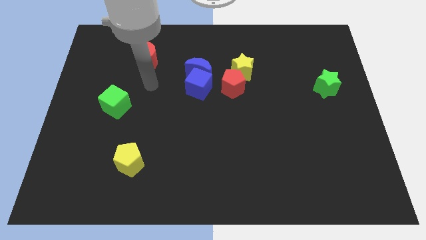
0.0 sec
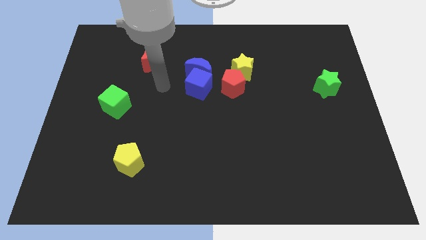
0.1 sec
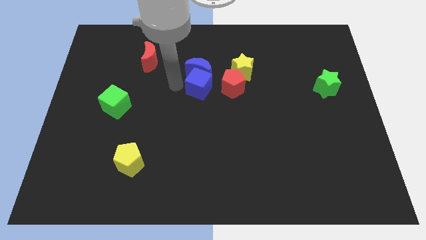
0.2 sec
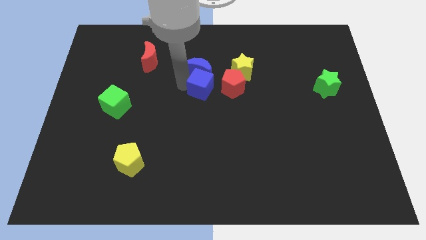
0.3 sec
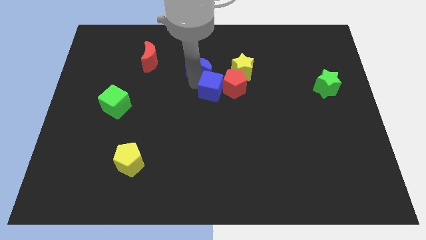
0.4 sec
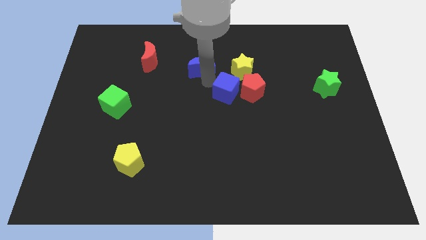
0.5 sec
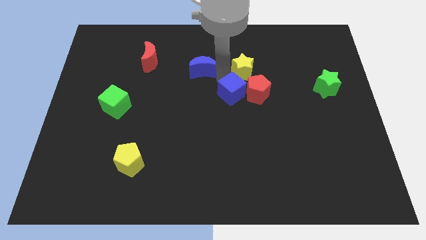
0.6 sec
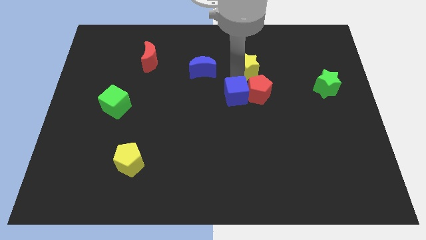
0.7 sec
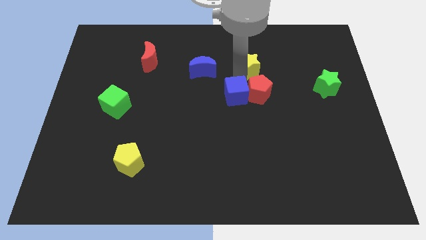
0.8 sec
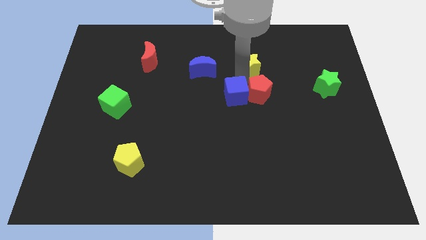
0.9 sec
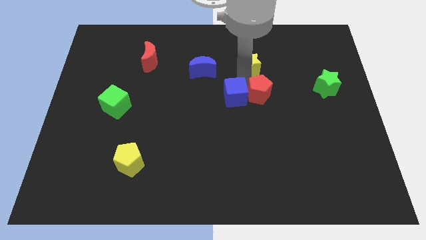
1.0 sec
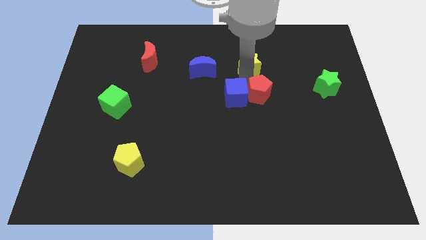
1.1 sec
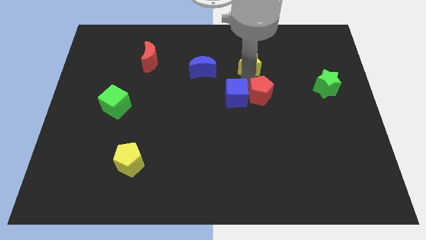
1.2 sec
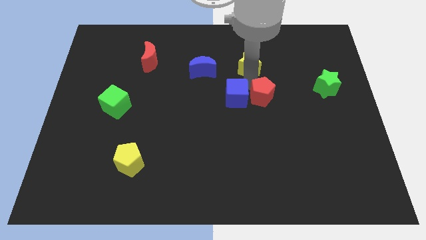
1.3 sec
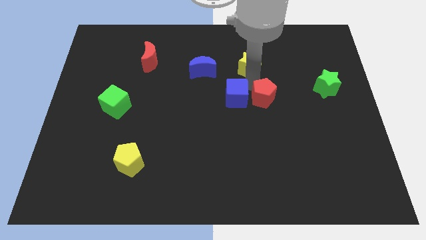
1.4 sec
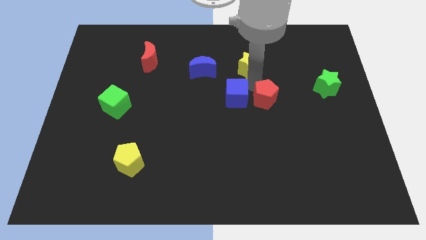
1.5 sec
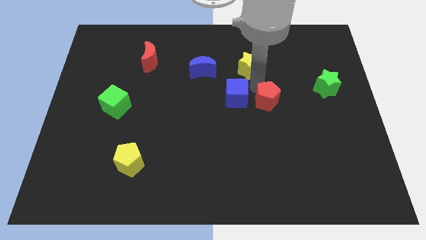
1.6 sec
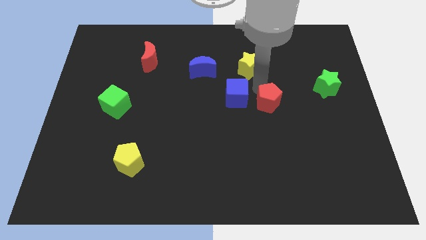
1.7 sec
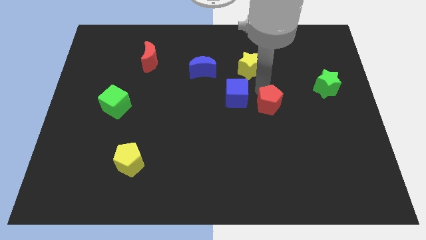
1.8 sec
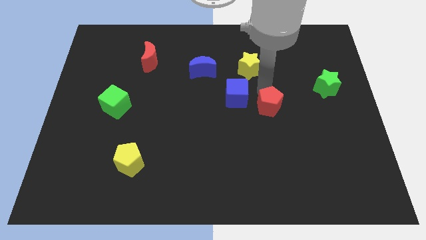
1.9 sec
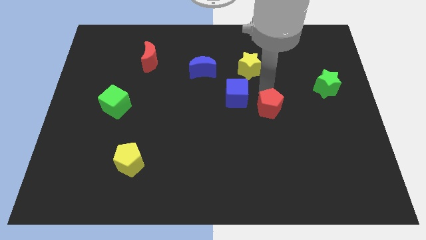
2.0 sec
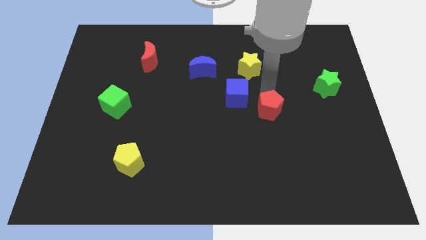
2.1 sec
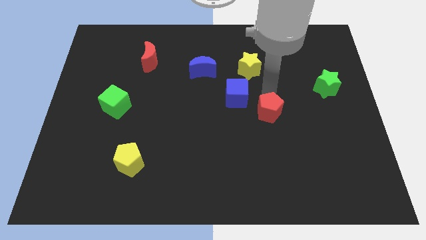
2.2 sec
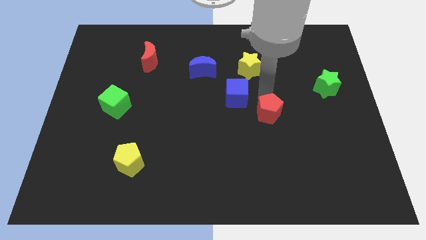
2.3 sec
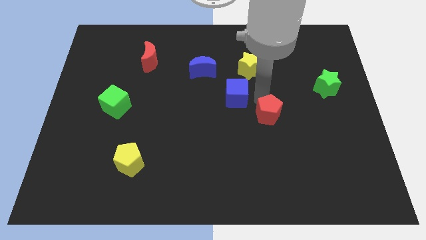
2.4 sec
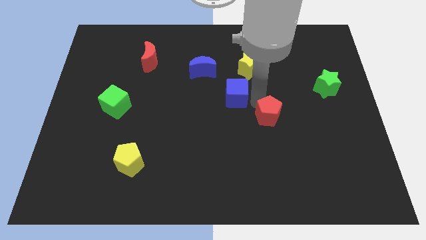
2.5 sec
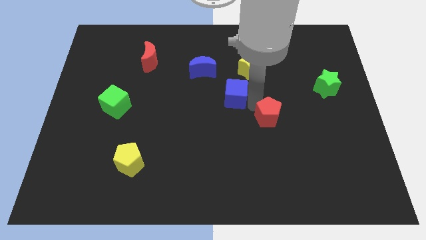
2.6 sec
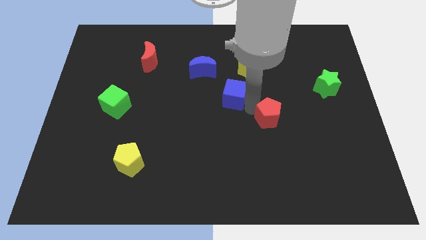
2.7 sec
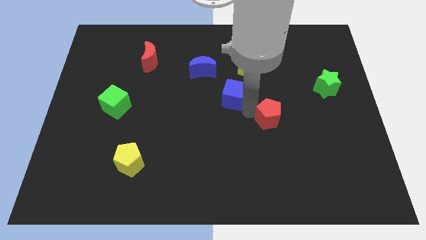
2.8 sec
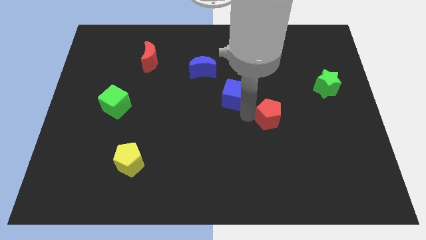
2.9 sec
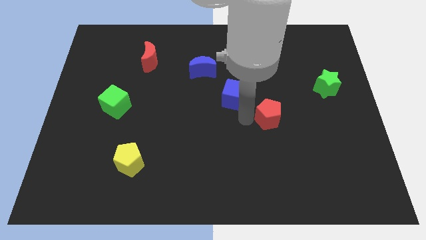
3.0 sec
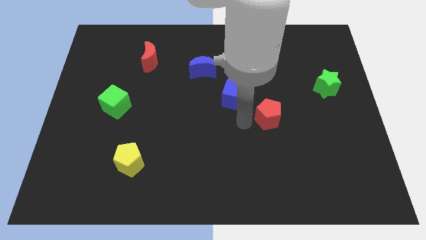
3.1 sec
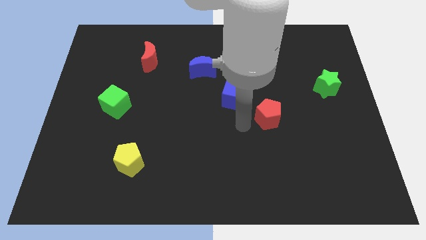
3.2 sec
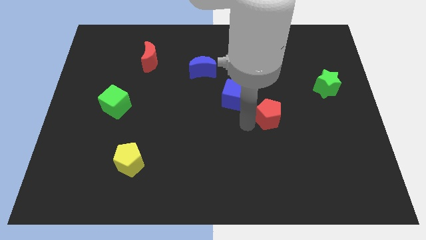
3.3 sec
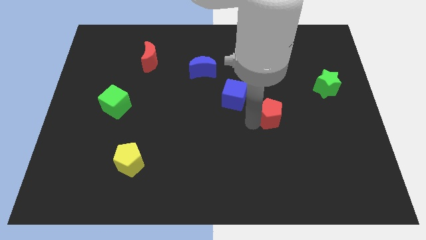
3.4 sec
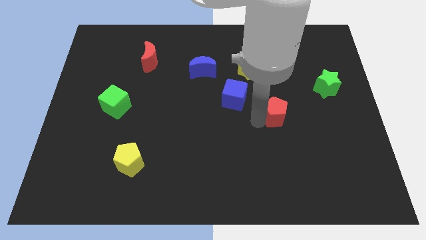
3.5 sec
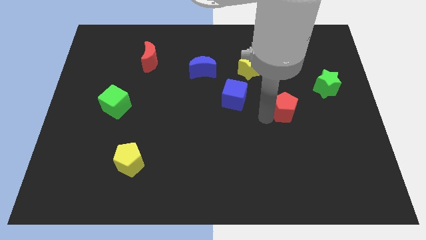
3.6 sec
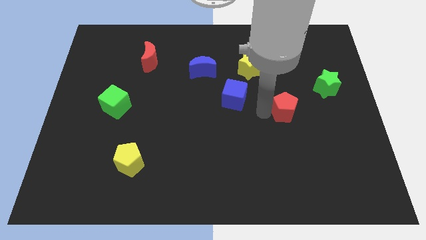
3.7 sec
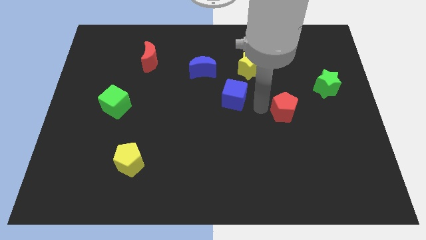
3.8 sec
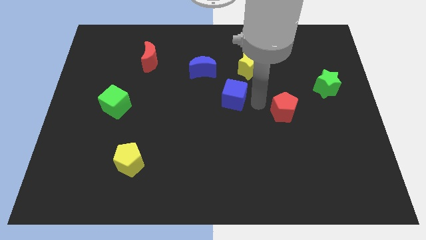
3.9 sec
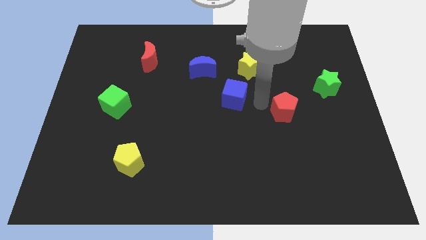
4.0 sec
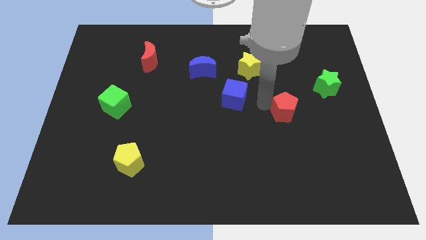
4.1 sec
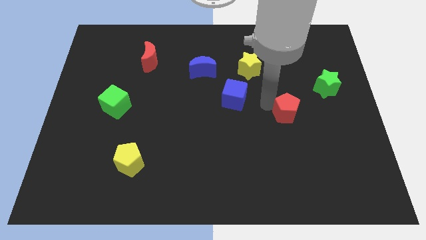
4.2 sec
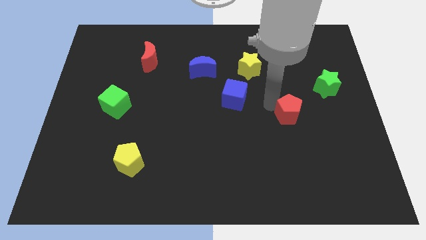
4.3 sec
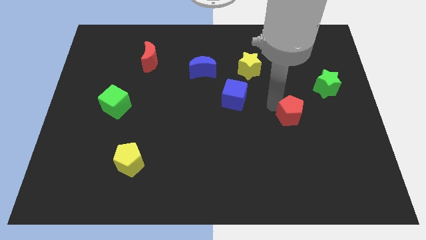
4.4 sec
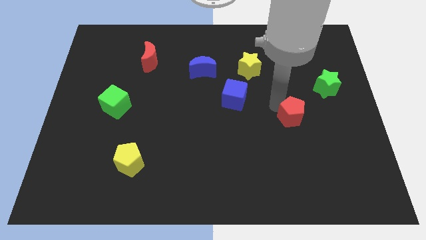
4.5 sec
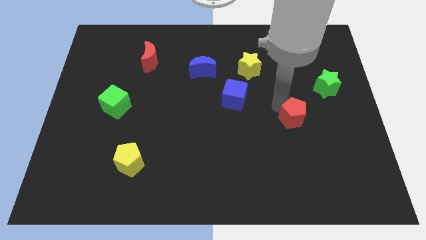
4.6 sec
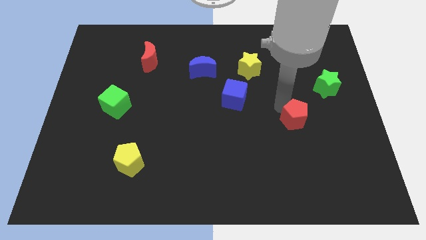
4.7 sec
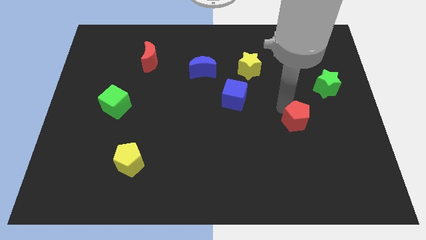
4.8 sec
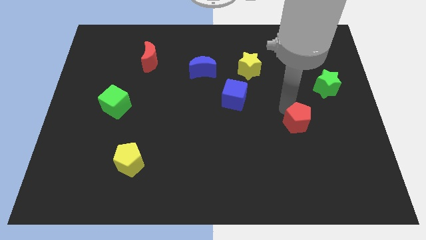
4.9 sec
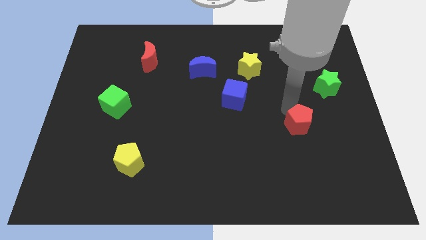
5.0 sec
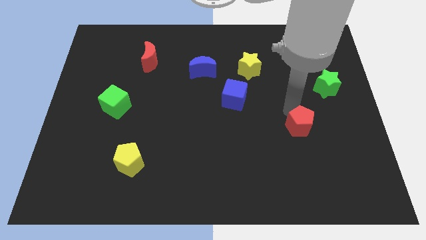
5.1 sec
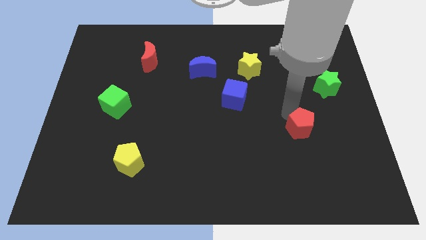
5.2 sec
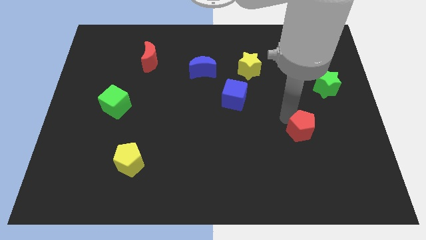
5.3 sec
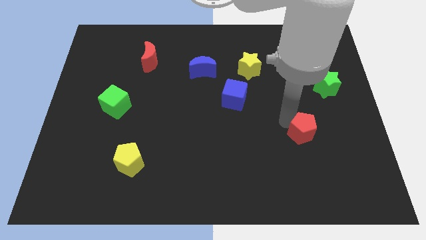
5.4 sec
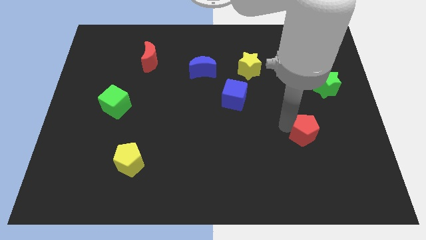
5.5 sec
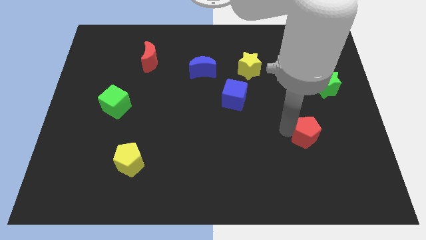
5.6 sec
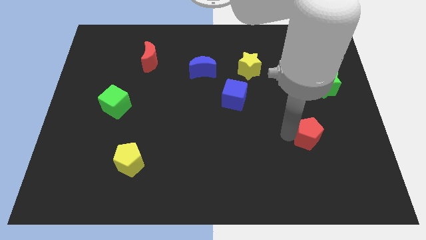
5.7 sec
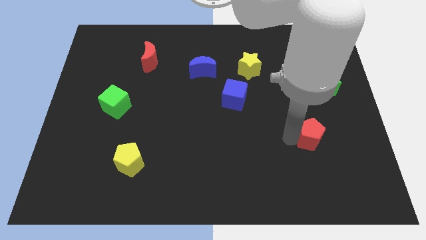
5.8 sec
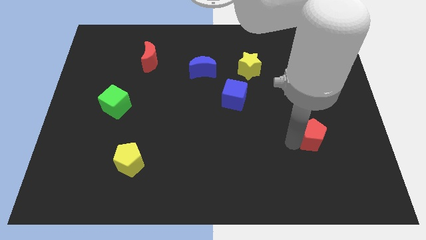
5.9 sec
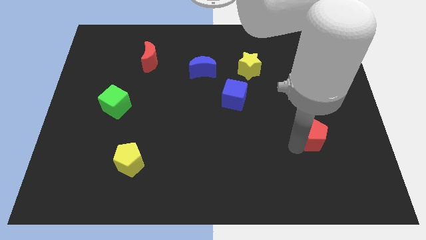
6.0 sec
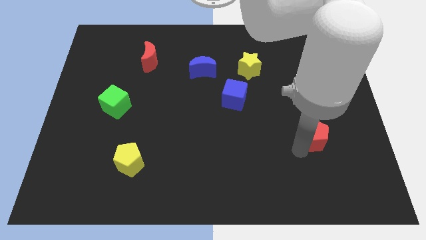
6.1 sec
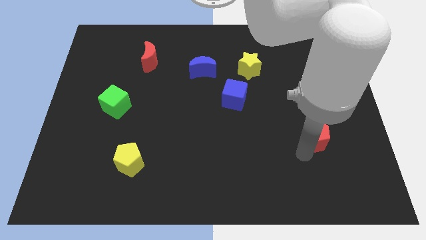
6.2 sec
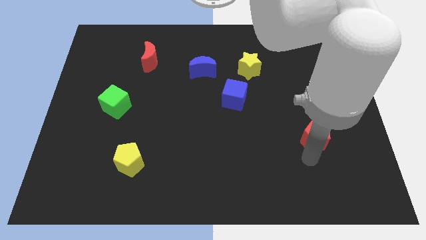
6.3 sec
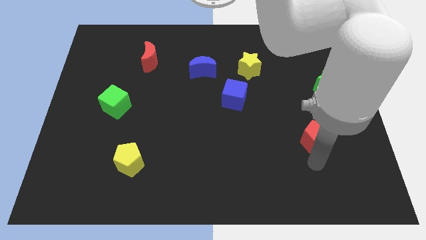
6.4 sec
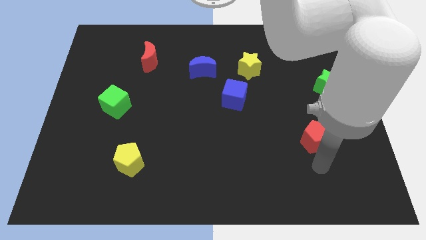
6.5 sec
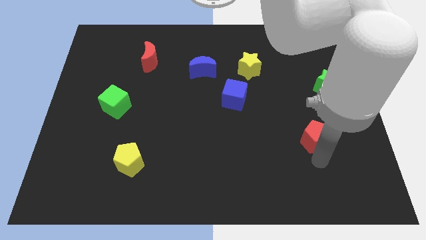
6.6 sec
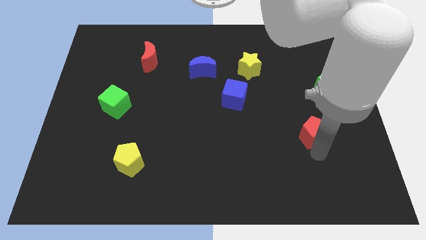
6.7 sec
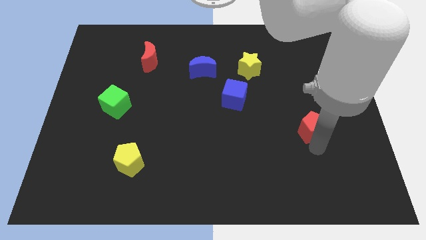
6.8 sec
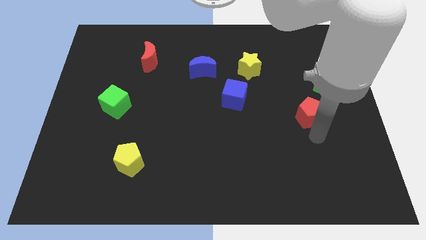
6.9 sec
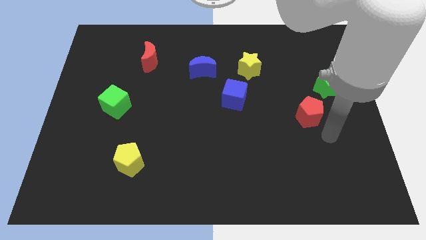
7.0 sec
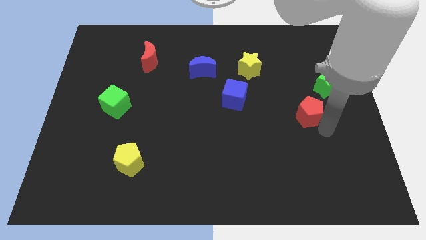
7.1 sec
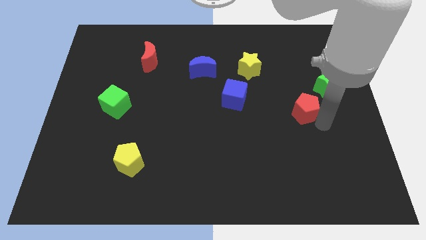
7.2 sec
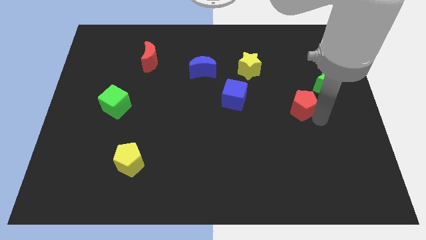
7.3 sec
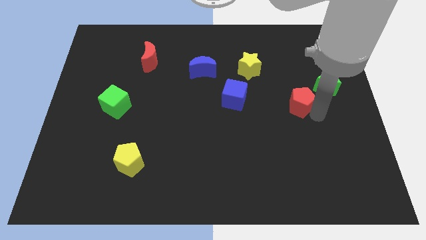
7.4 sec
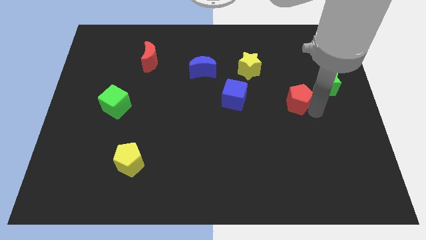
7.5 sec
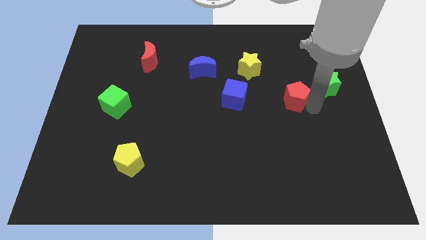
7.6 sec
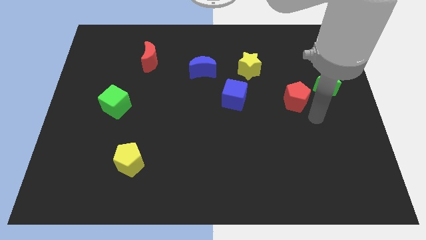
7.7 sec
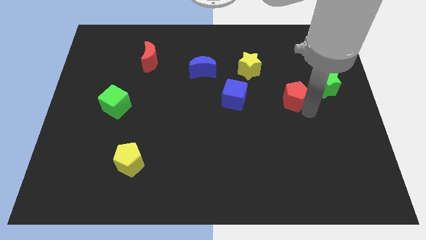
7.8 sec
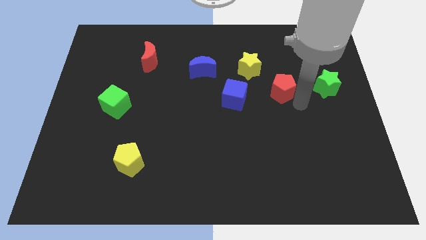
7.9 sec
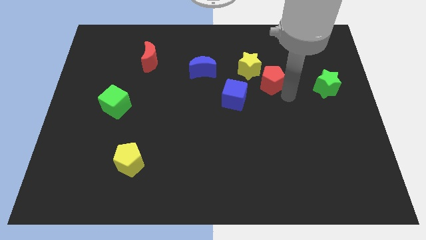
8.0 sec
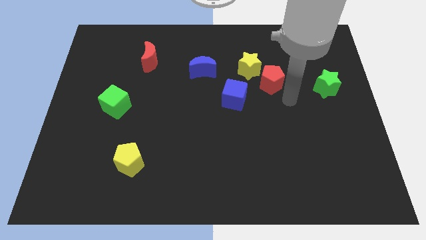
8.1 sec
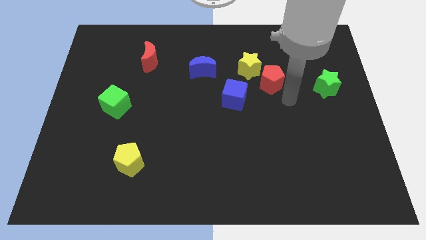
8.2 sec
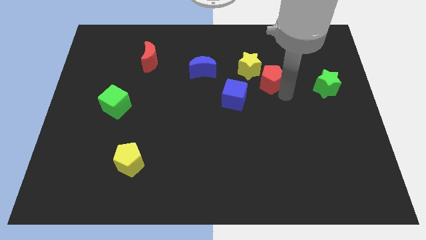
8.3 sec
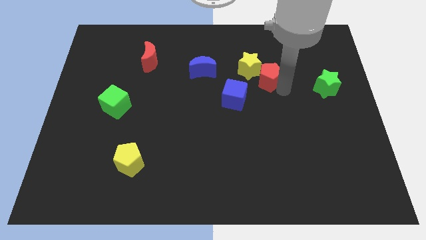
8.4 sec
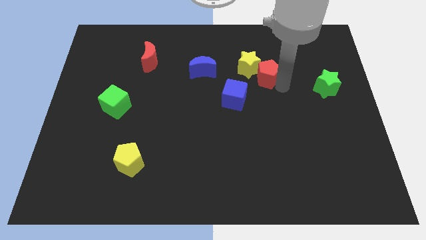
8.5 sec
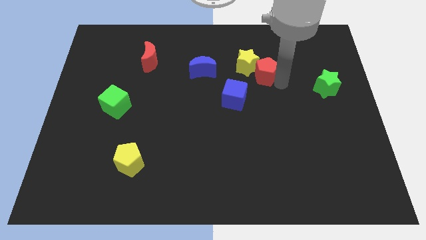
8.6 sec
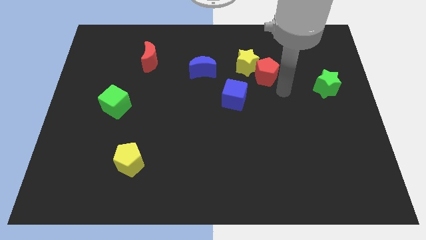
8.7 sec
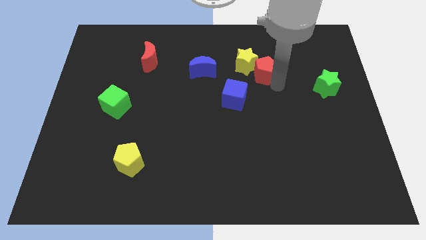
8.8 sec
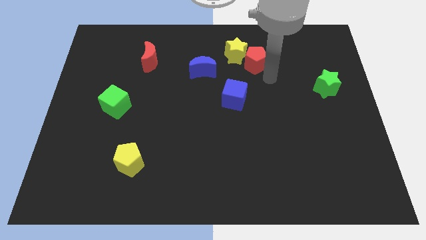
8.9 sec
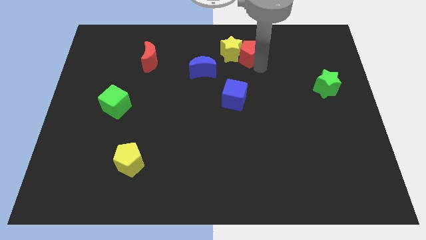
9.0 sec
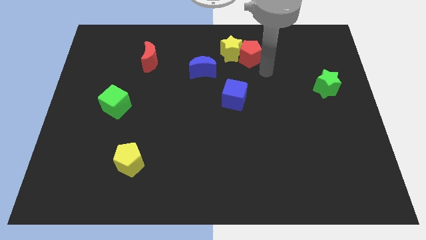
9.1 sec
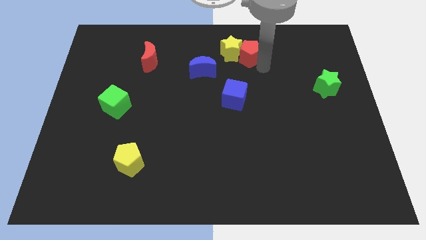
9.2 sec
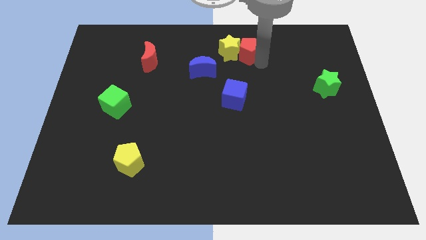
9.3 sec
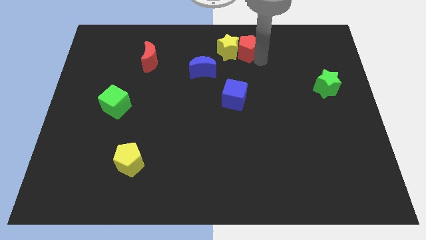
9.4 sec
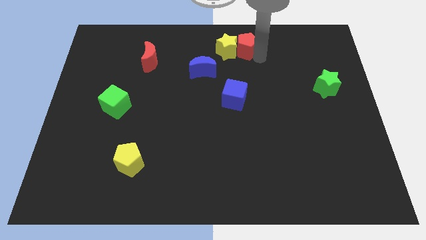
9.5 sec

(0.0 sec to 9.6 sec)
move the red pentagon to the top
